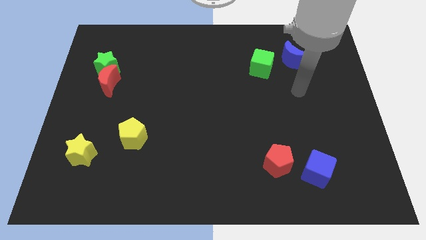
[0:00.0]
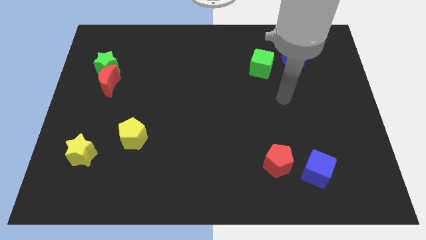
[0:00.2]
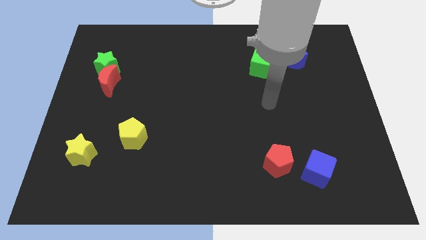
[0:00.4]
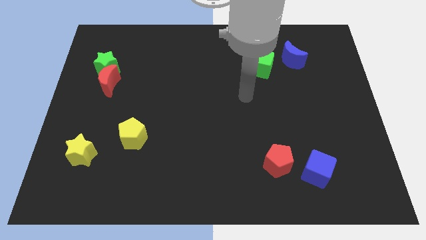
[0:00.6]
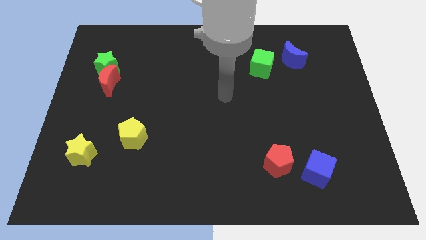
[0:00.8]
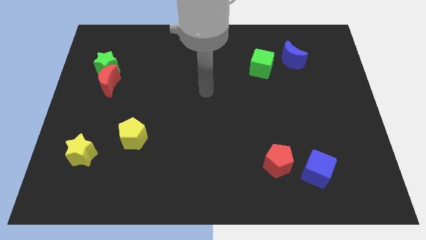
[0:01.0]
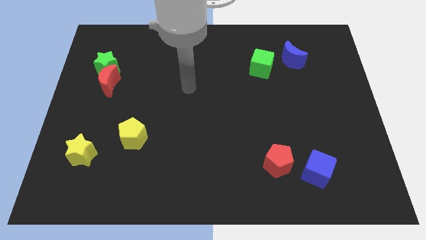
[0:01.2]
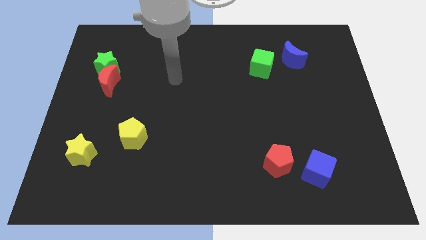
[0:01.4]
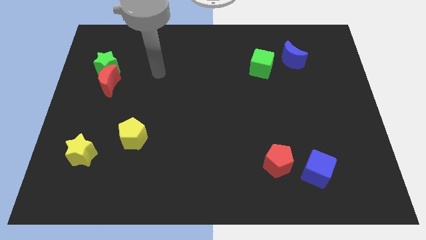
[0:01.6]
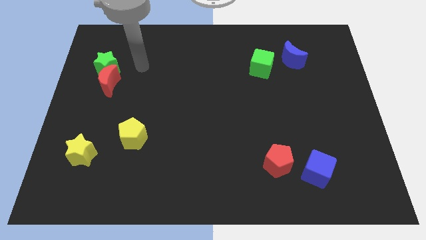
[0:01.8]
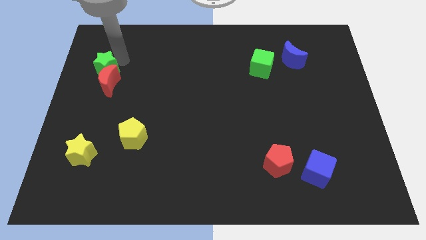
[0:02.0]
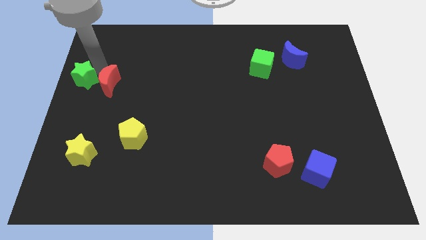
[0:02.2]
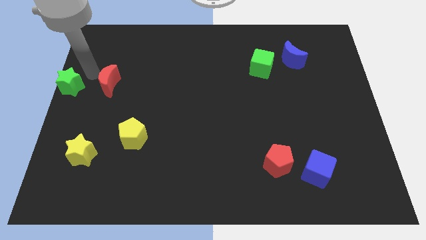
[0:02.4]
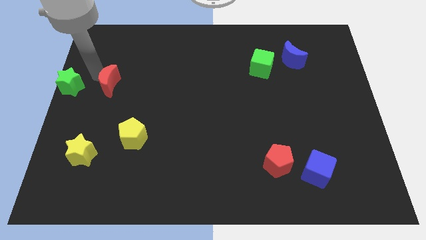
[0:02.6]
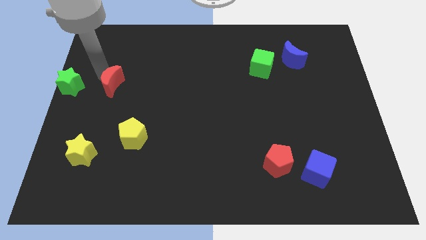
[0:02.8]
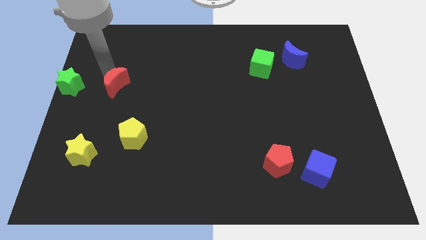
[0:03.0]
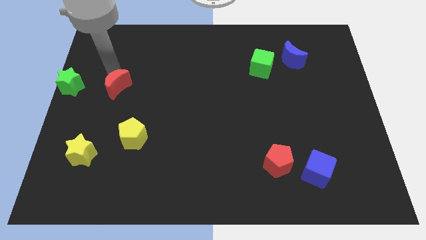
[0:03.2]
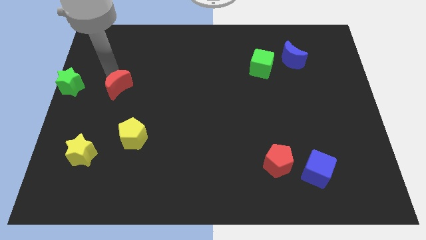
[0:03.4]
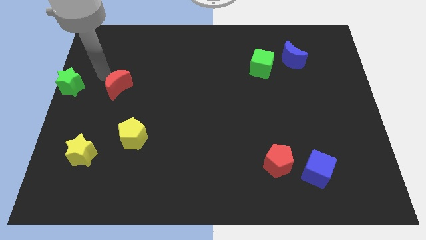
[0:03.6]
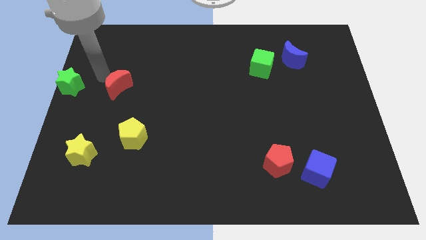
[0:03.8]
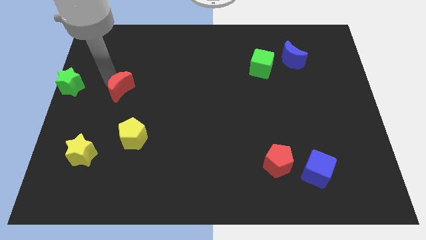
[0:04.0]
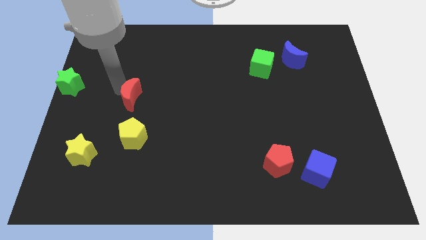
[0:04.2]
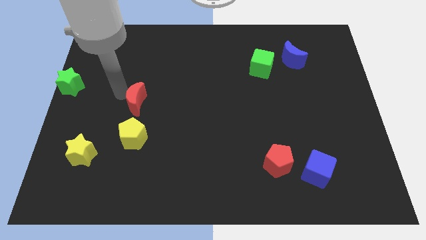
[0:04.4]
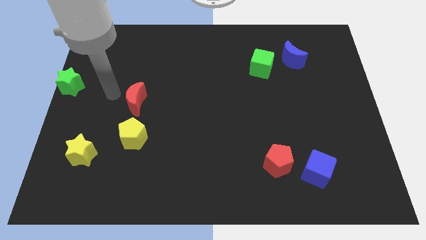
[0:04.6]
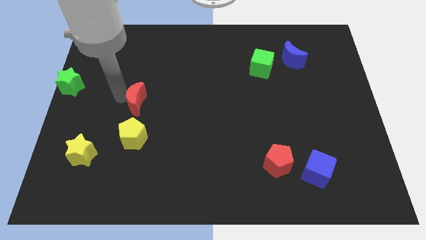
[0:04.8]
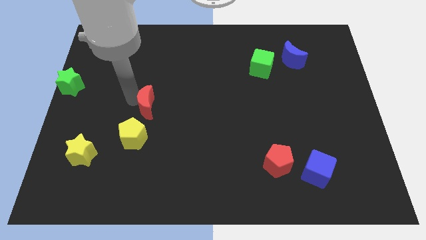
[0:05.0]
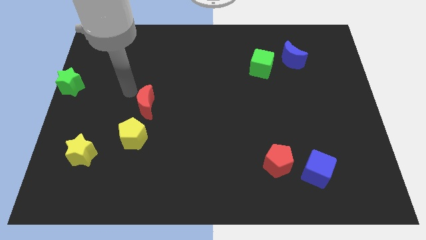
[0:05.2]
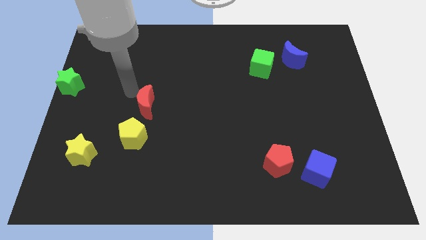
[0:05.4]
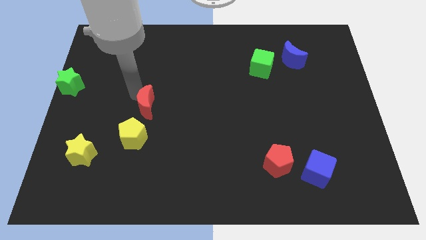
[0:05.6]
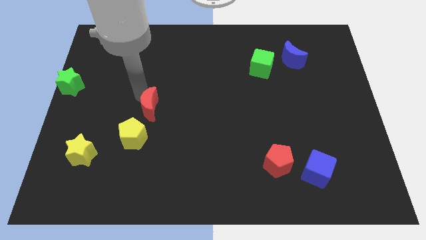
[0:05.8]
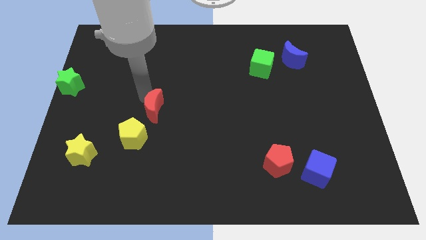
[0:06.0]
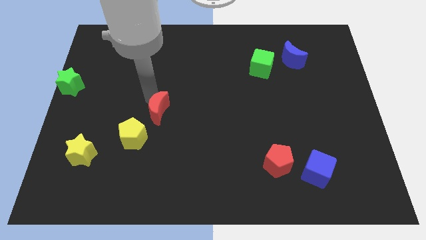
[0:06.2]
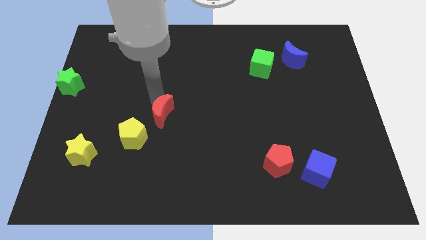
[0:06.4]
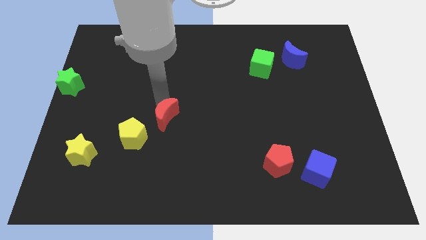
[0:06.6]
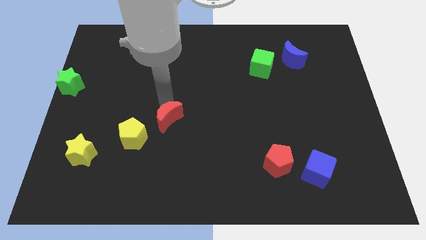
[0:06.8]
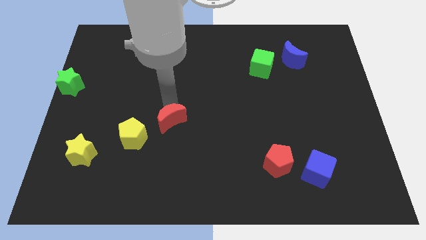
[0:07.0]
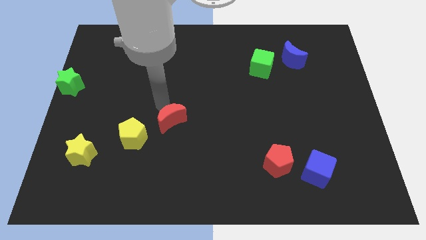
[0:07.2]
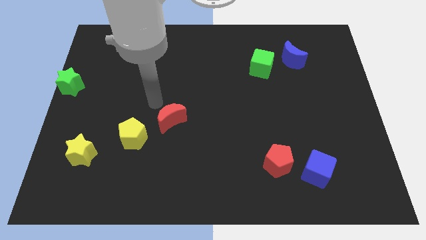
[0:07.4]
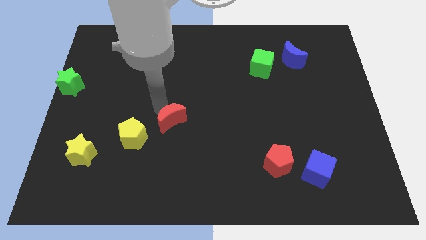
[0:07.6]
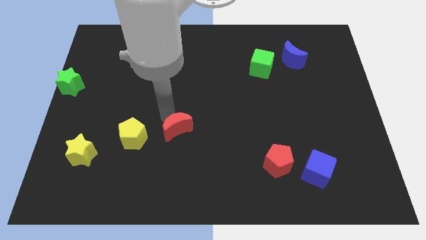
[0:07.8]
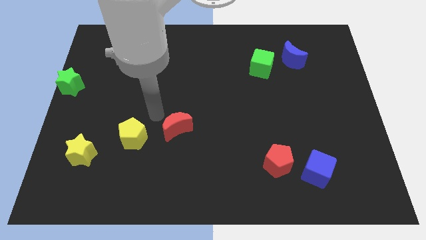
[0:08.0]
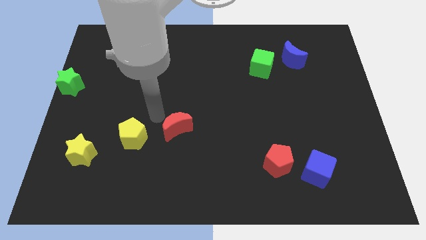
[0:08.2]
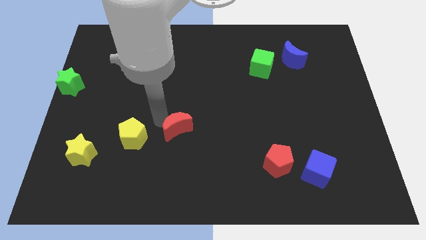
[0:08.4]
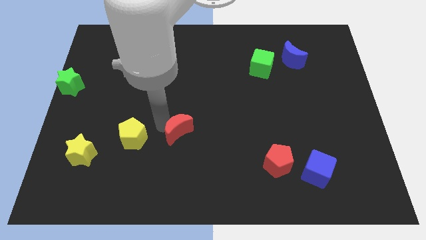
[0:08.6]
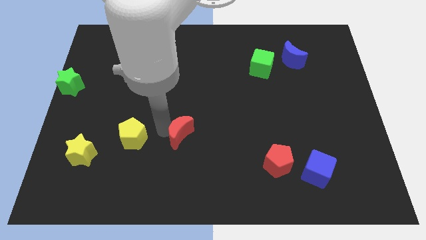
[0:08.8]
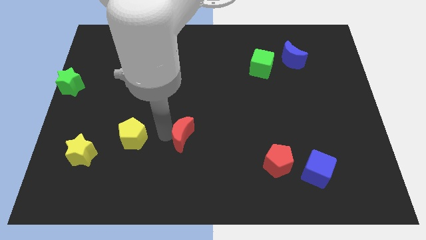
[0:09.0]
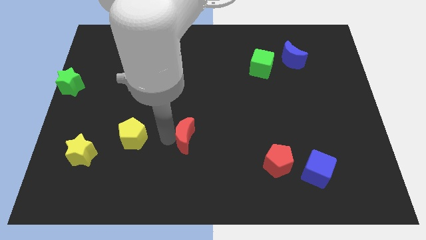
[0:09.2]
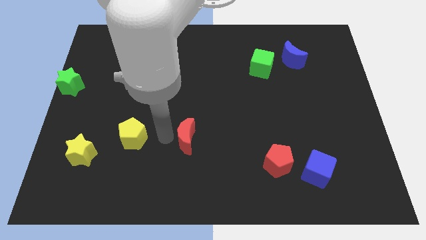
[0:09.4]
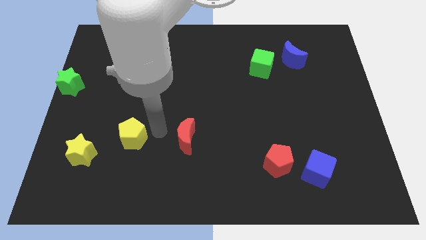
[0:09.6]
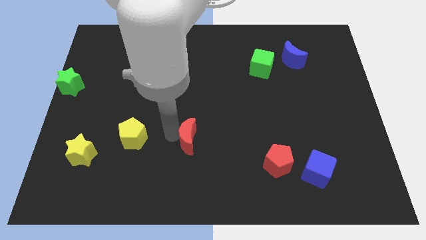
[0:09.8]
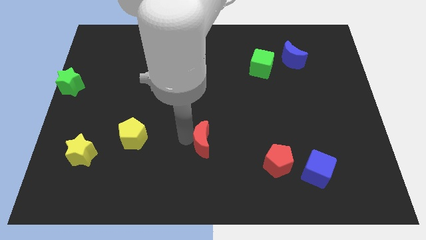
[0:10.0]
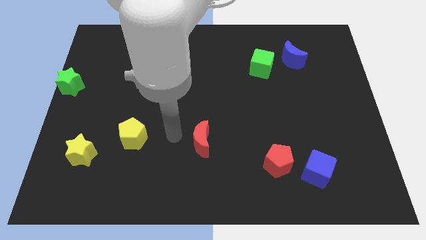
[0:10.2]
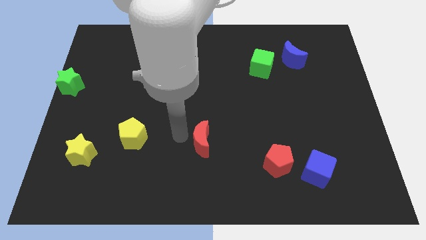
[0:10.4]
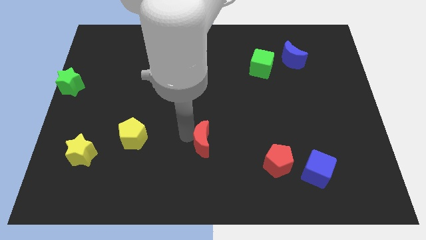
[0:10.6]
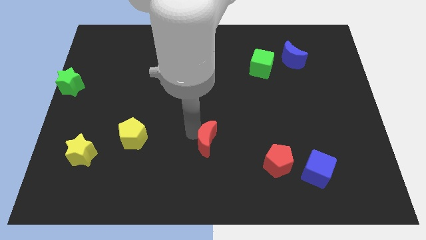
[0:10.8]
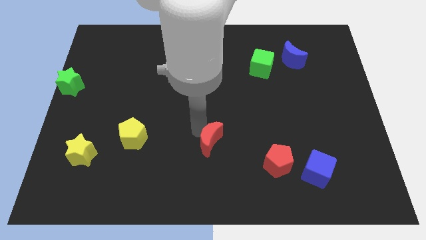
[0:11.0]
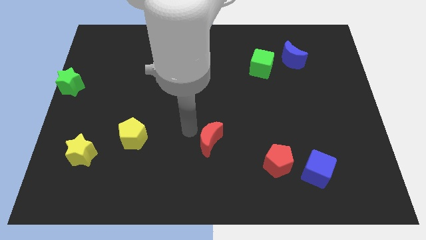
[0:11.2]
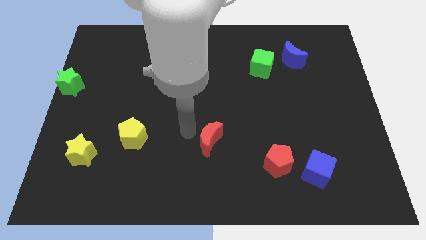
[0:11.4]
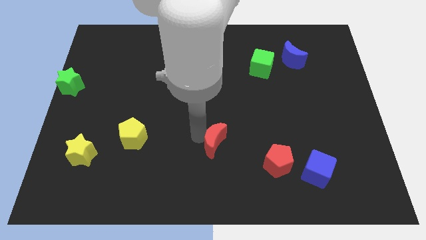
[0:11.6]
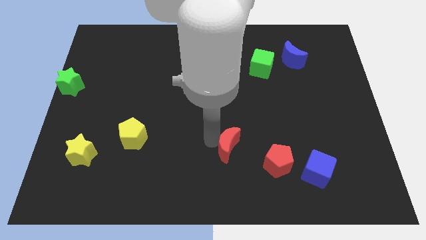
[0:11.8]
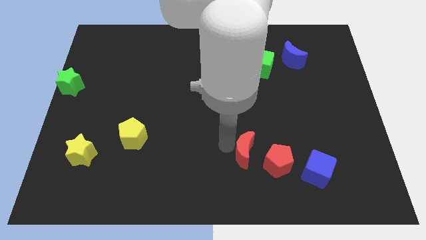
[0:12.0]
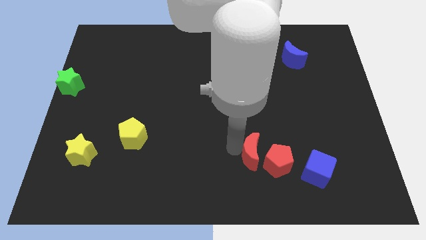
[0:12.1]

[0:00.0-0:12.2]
push the red moon towards the red pentagon
